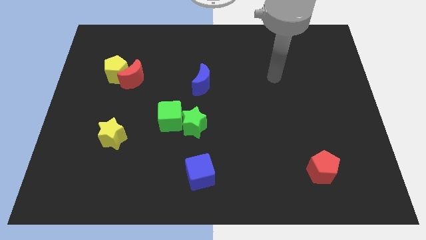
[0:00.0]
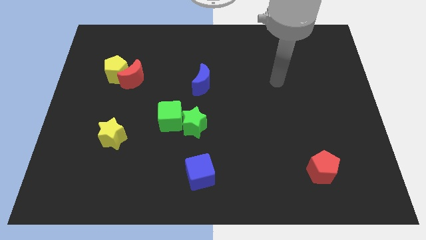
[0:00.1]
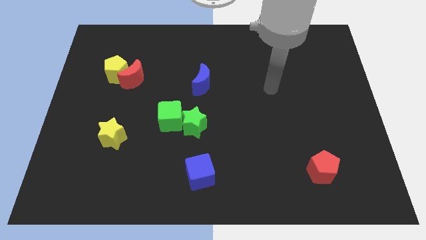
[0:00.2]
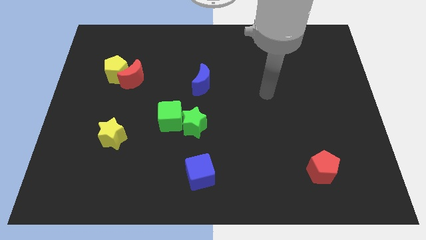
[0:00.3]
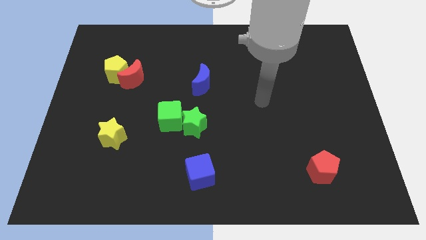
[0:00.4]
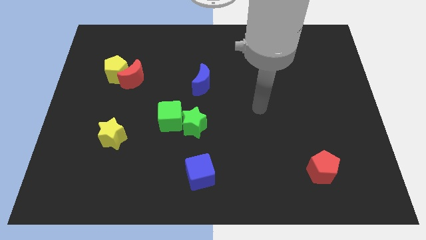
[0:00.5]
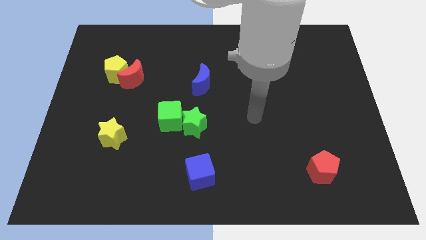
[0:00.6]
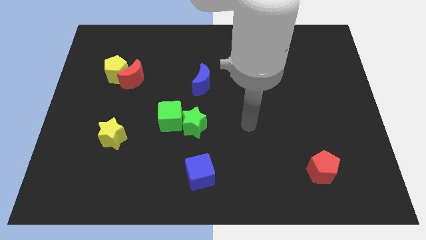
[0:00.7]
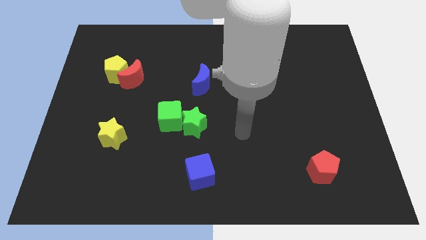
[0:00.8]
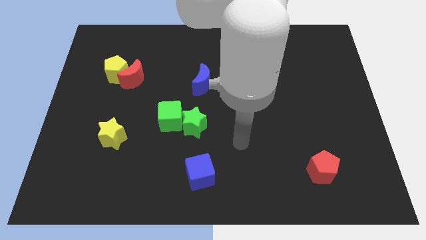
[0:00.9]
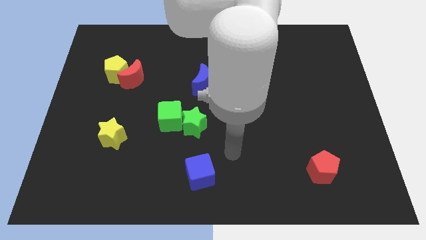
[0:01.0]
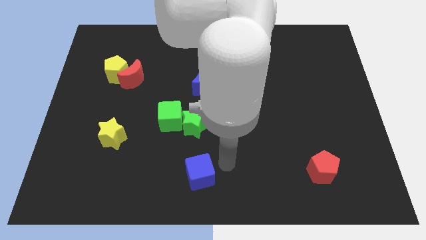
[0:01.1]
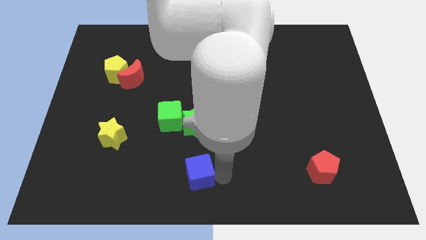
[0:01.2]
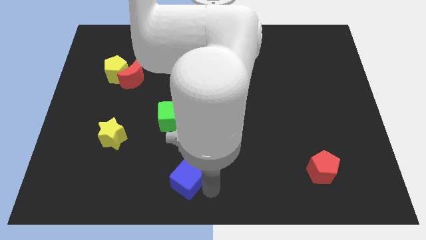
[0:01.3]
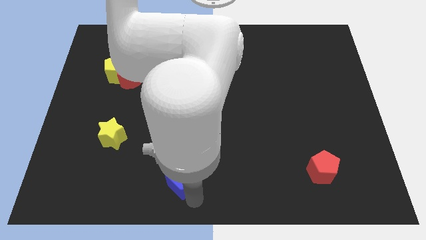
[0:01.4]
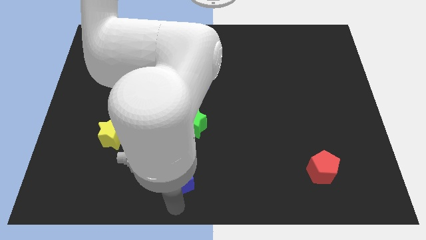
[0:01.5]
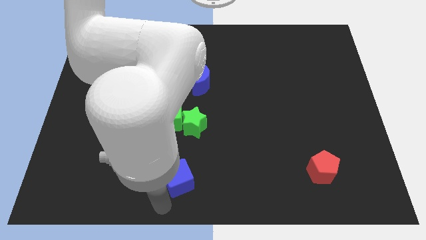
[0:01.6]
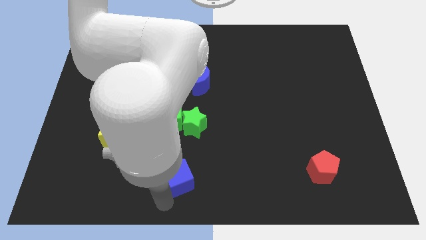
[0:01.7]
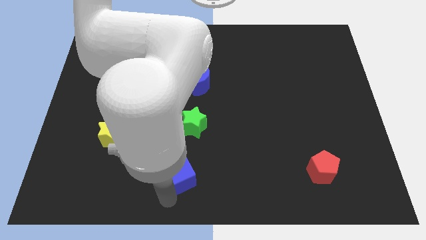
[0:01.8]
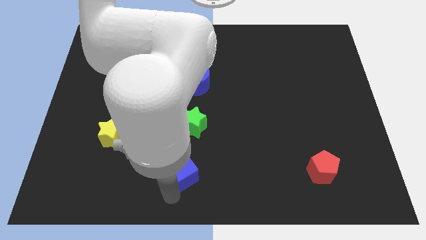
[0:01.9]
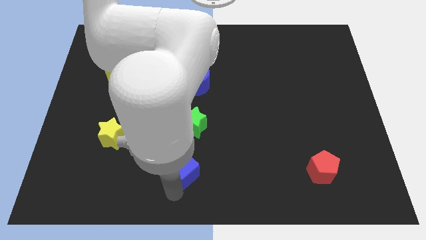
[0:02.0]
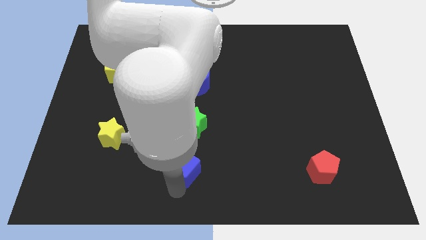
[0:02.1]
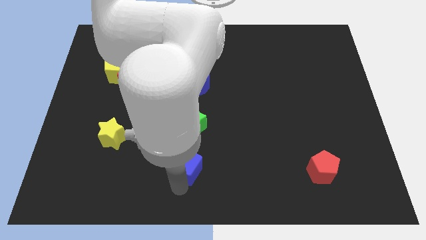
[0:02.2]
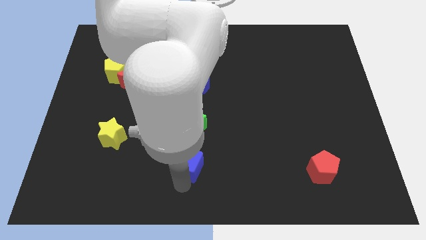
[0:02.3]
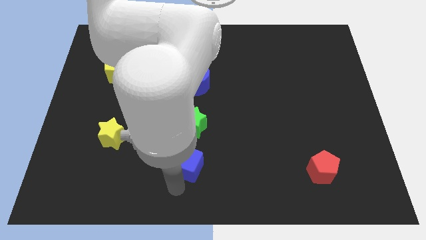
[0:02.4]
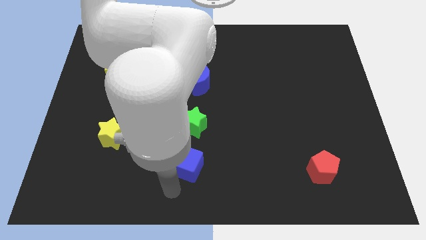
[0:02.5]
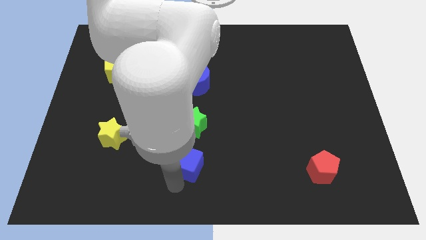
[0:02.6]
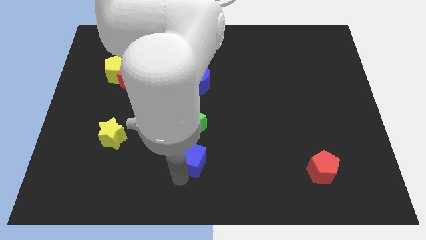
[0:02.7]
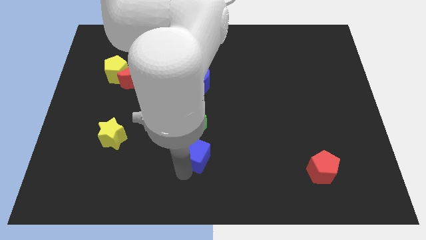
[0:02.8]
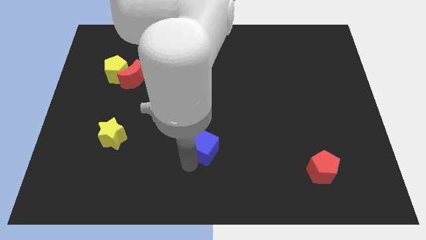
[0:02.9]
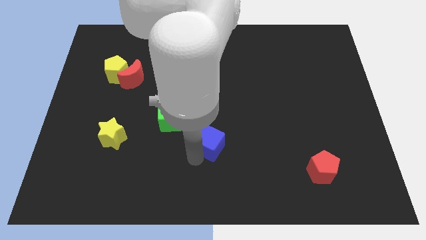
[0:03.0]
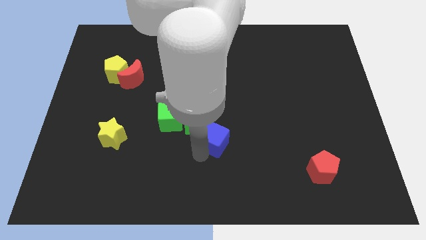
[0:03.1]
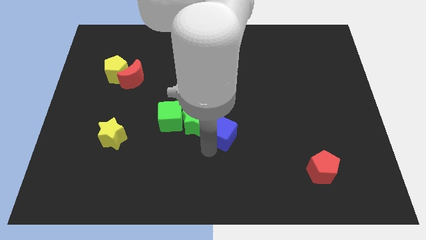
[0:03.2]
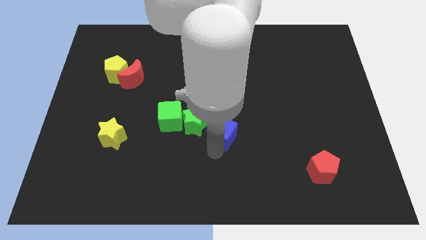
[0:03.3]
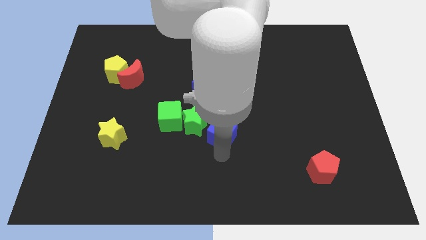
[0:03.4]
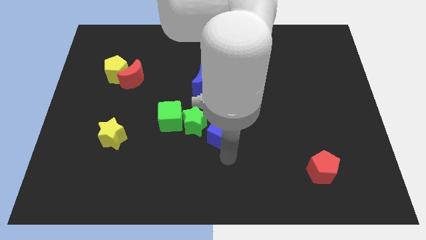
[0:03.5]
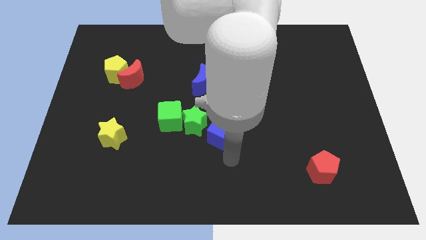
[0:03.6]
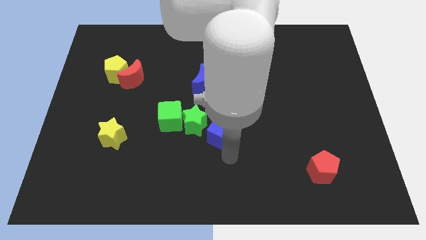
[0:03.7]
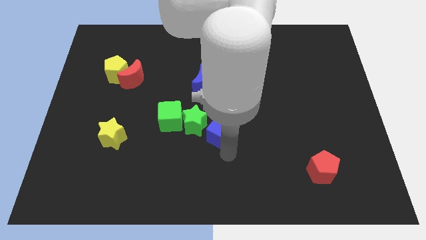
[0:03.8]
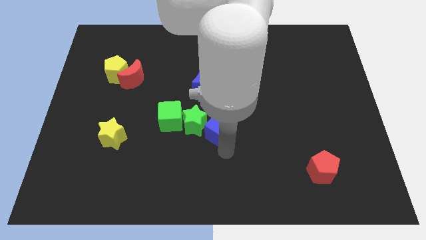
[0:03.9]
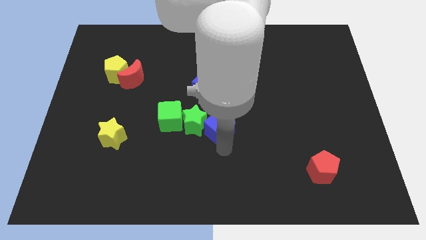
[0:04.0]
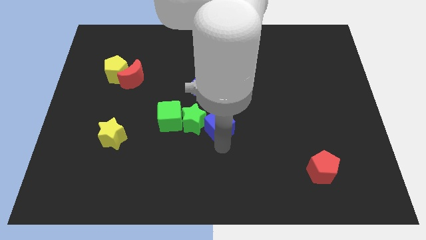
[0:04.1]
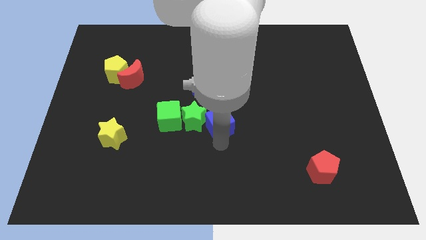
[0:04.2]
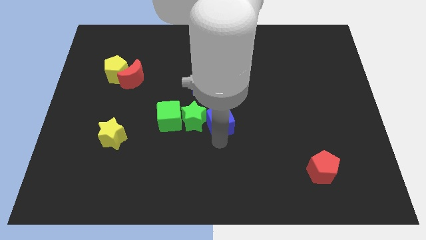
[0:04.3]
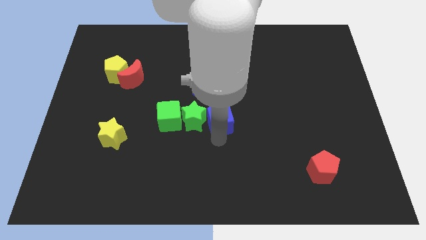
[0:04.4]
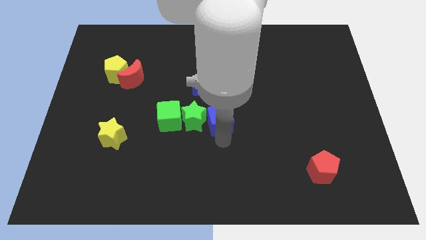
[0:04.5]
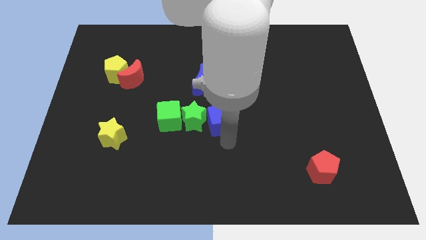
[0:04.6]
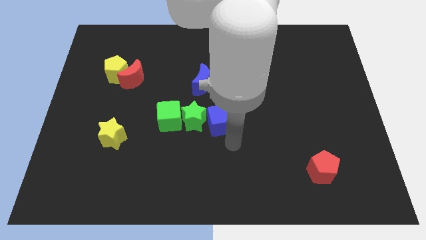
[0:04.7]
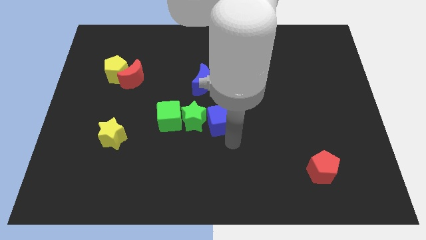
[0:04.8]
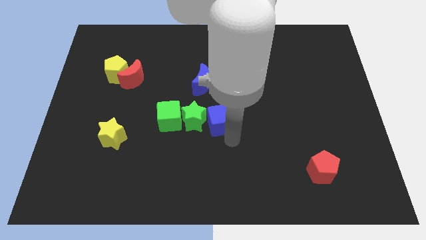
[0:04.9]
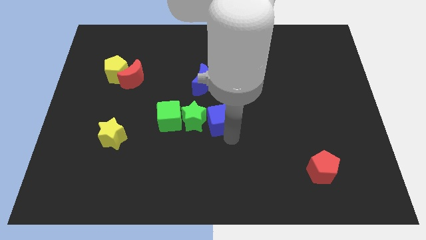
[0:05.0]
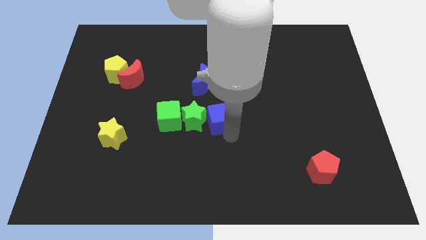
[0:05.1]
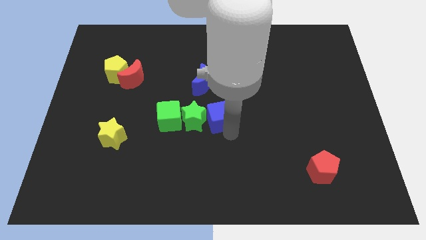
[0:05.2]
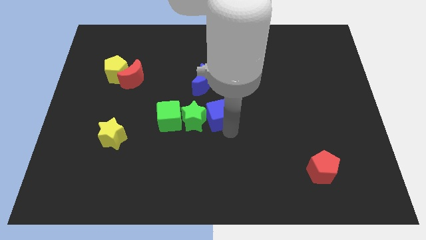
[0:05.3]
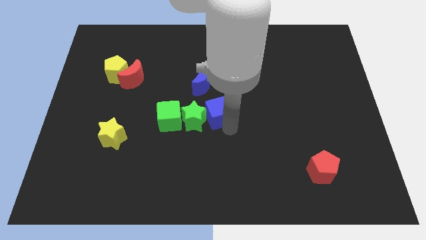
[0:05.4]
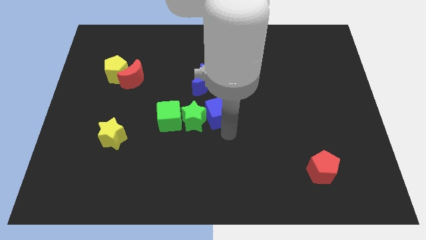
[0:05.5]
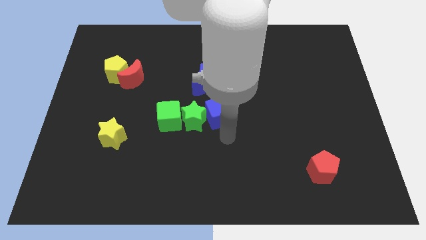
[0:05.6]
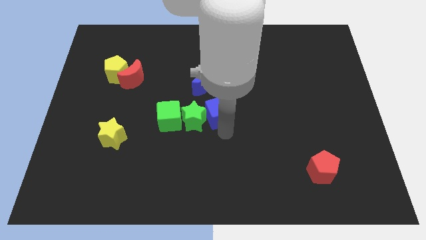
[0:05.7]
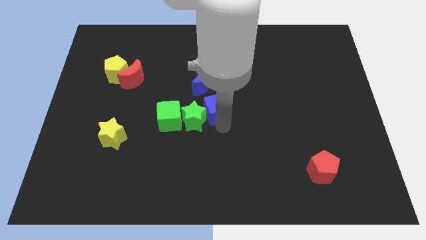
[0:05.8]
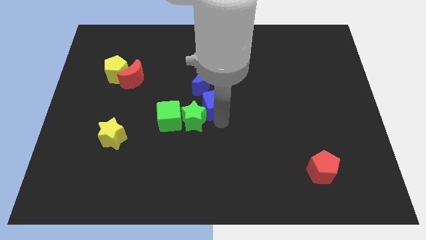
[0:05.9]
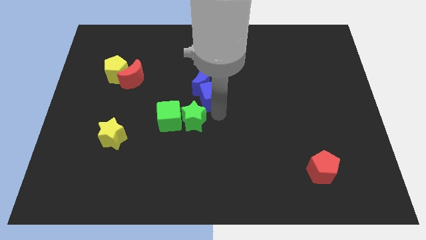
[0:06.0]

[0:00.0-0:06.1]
move the blue cube close to the blue moon

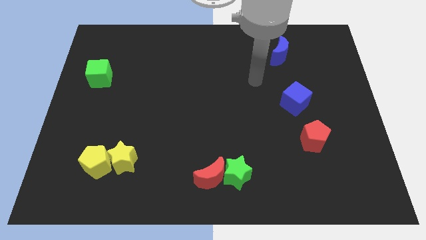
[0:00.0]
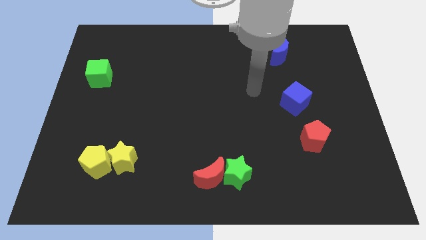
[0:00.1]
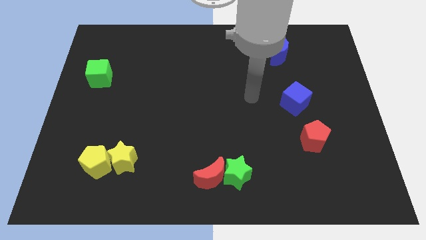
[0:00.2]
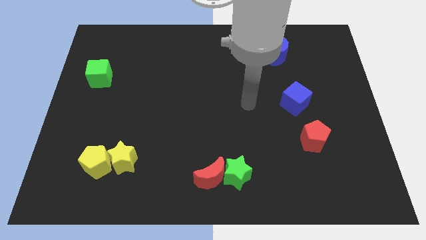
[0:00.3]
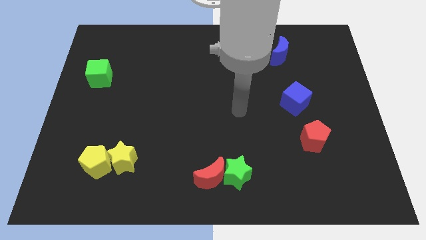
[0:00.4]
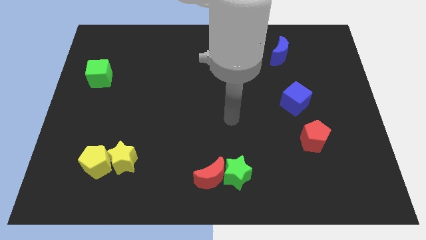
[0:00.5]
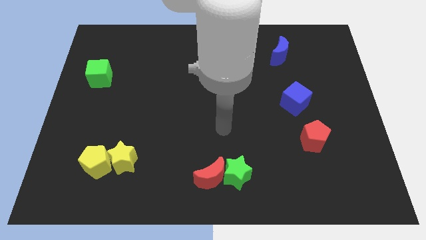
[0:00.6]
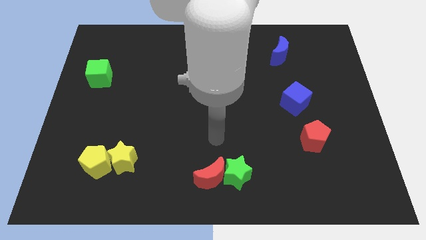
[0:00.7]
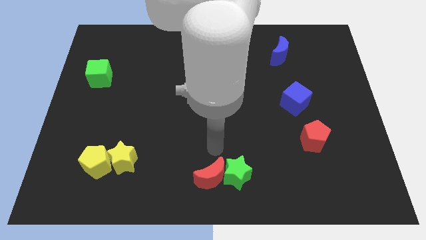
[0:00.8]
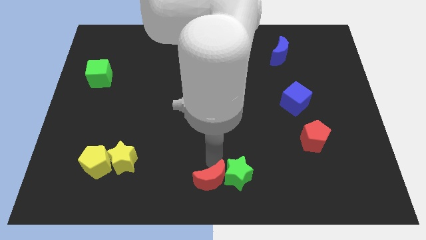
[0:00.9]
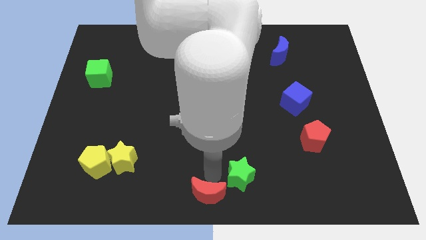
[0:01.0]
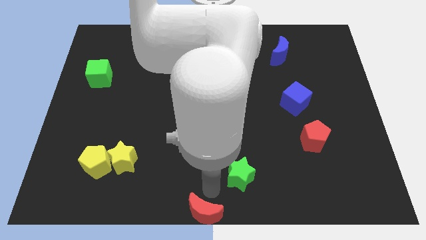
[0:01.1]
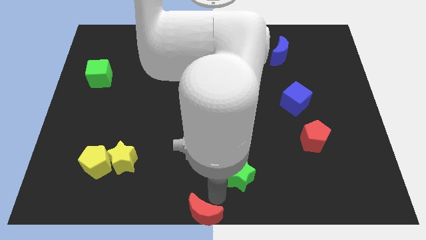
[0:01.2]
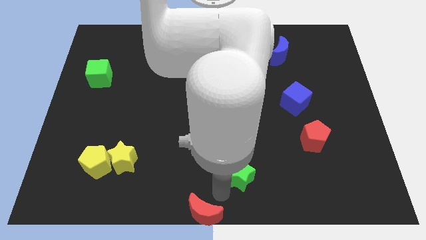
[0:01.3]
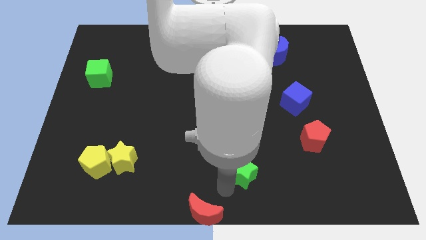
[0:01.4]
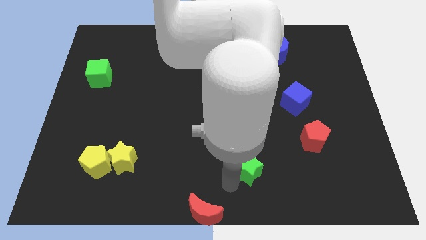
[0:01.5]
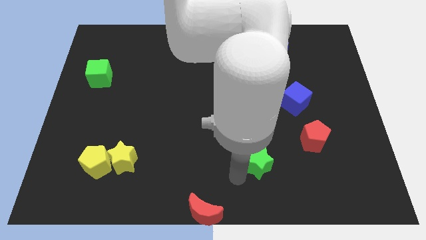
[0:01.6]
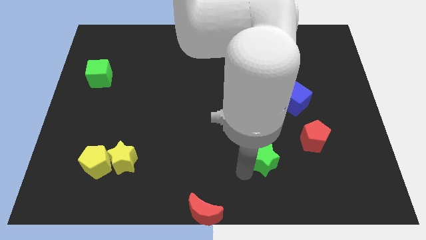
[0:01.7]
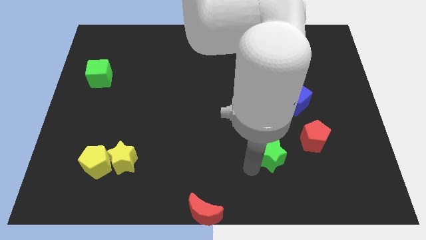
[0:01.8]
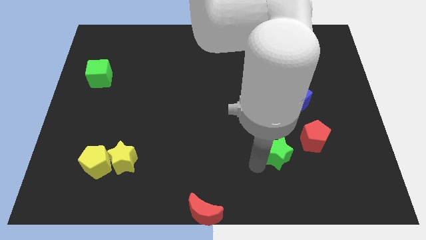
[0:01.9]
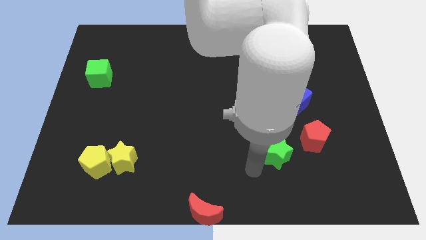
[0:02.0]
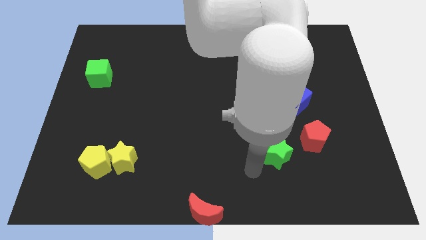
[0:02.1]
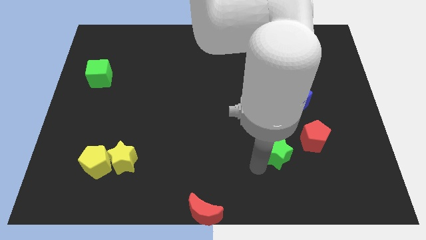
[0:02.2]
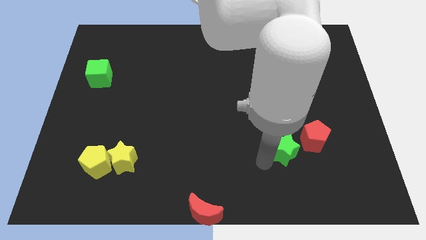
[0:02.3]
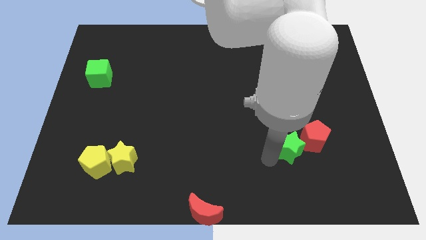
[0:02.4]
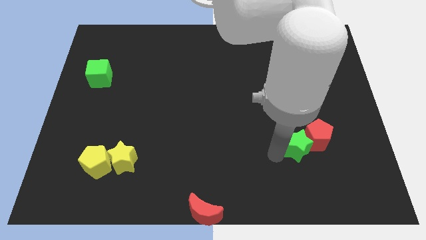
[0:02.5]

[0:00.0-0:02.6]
move the green star next to the red pentagon
